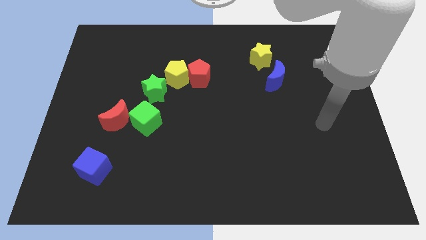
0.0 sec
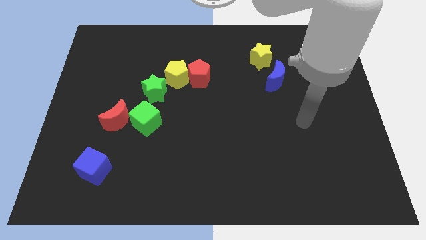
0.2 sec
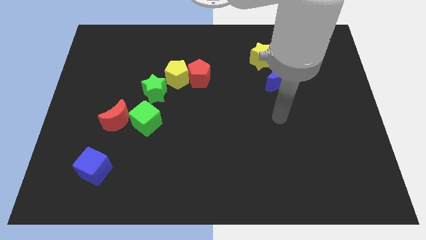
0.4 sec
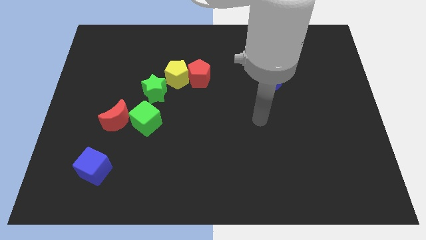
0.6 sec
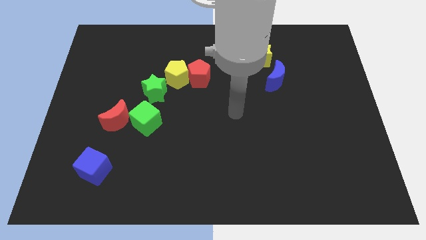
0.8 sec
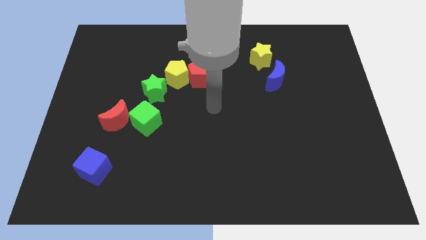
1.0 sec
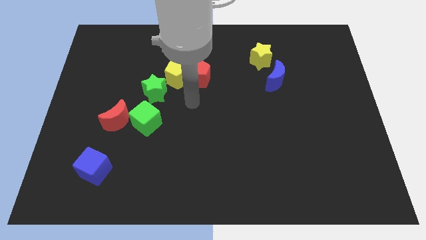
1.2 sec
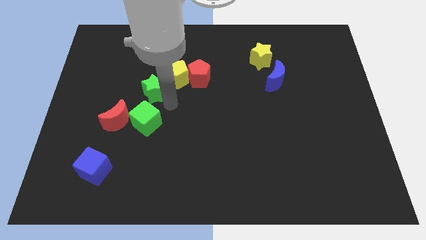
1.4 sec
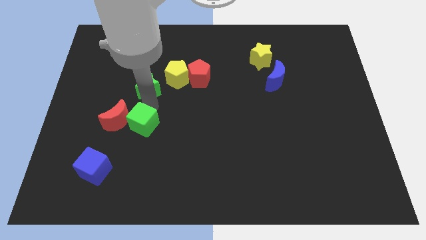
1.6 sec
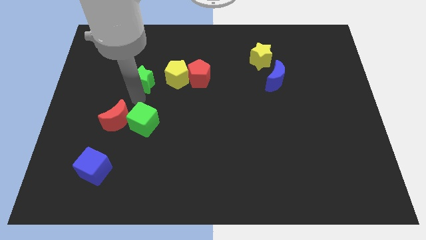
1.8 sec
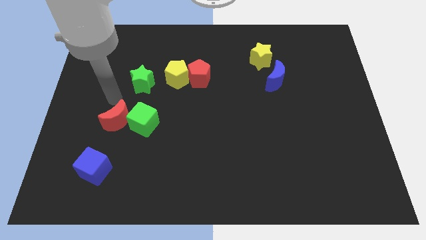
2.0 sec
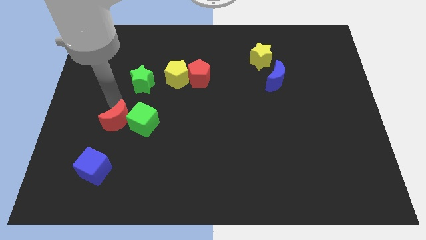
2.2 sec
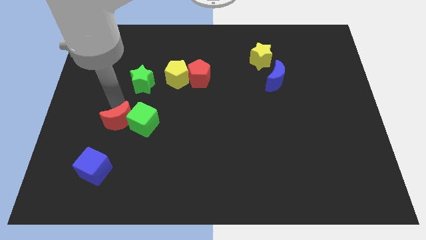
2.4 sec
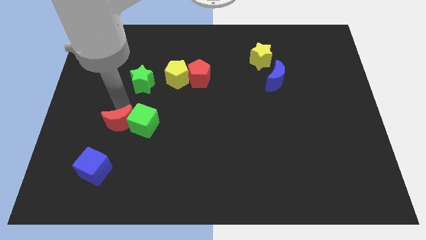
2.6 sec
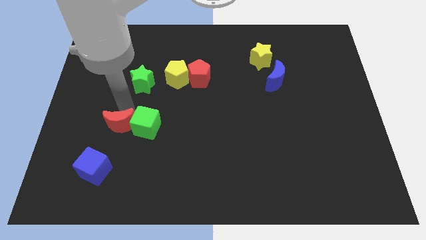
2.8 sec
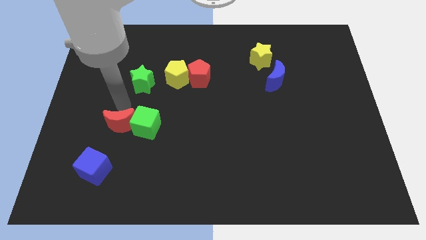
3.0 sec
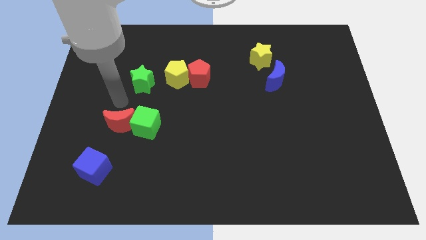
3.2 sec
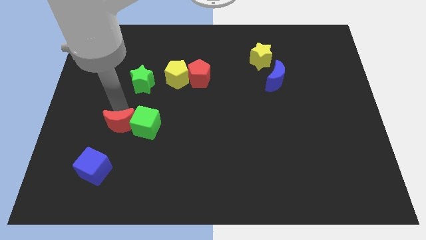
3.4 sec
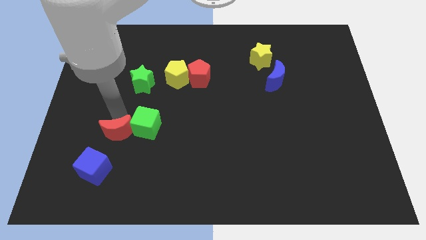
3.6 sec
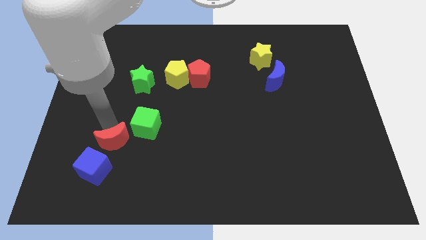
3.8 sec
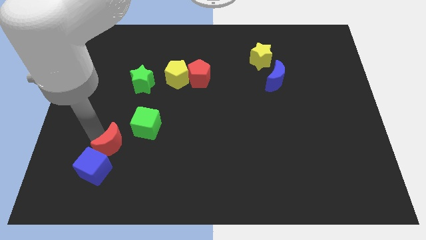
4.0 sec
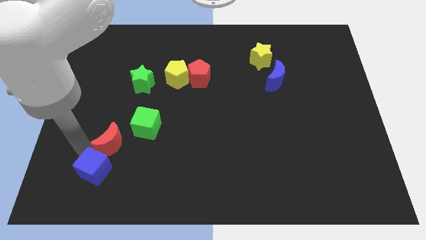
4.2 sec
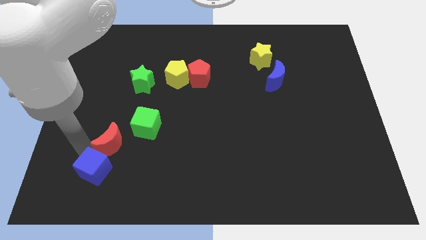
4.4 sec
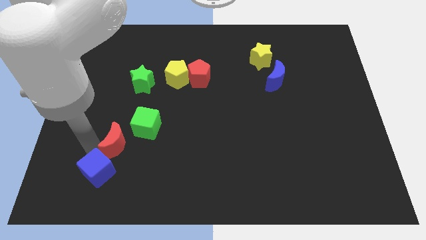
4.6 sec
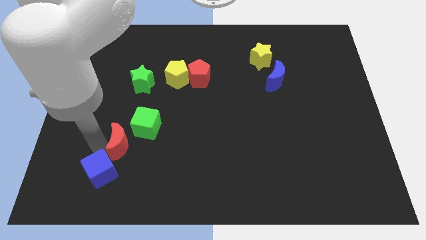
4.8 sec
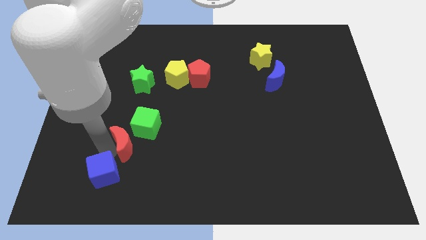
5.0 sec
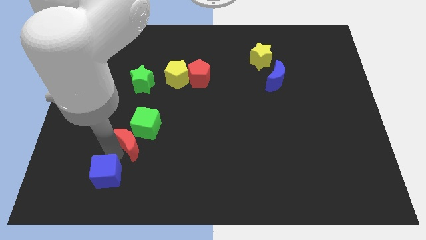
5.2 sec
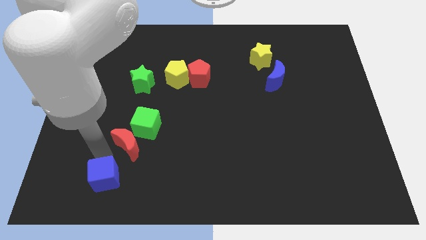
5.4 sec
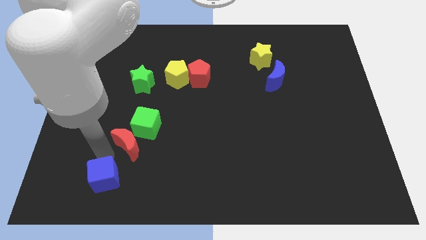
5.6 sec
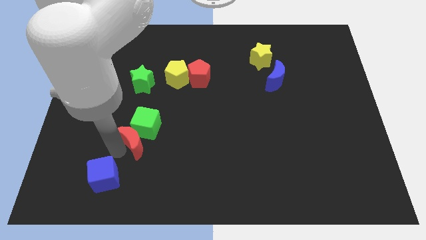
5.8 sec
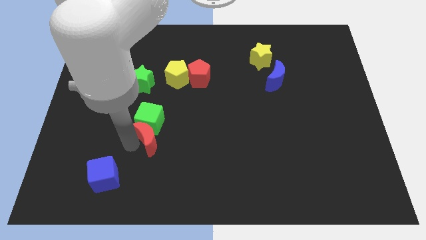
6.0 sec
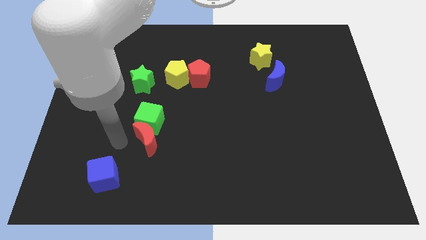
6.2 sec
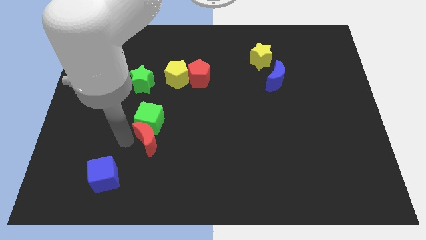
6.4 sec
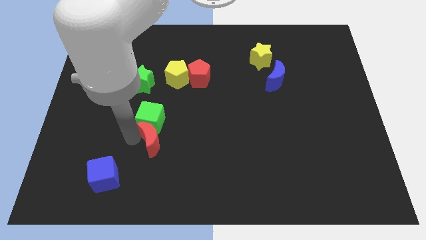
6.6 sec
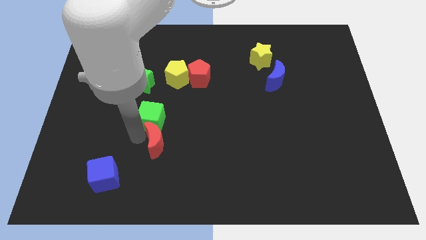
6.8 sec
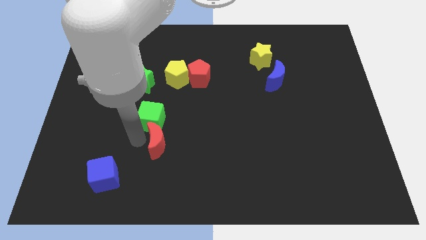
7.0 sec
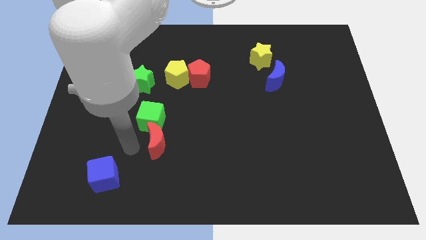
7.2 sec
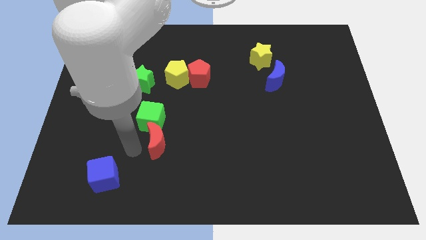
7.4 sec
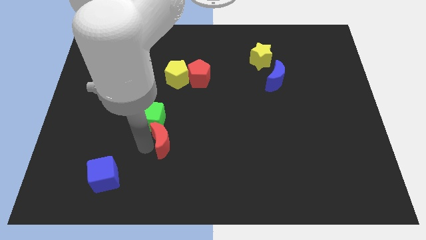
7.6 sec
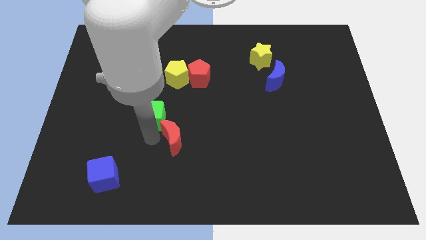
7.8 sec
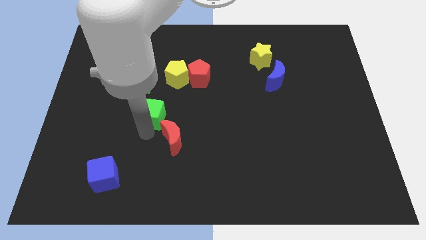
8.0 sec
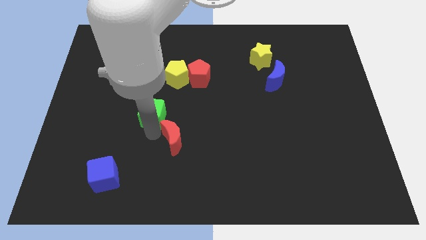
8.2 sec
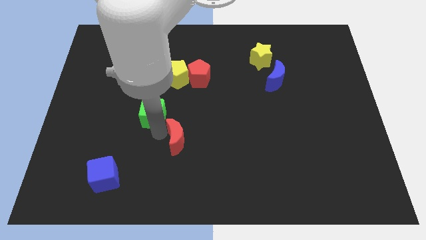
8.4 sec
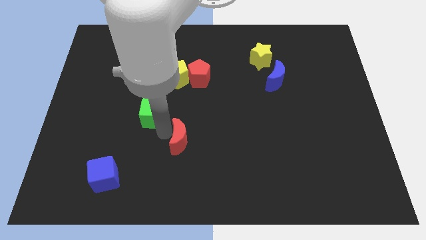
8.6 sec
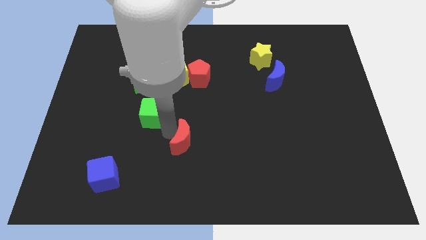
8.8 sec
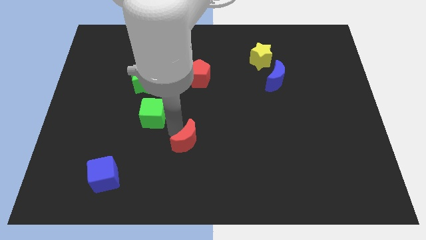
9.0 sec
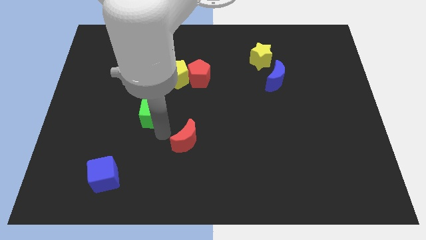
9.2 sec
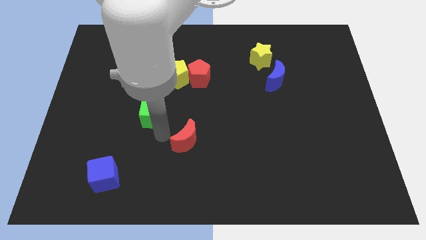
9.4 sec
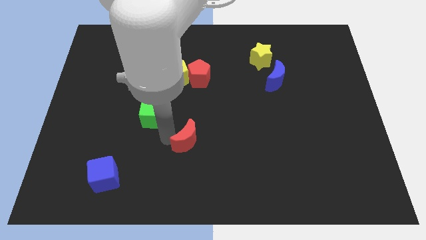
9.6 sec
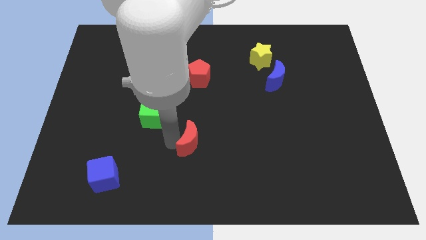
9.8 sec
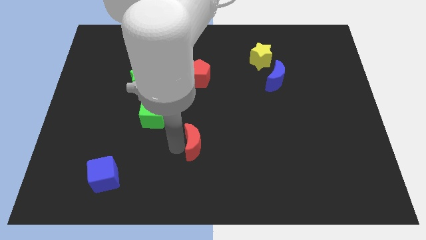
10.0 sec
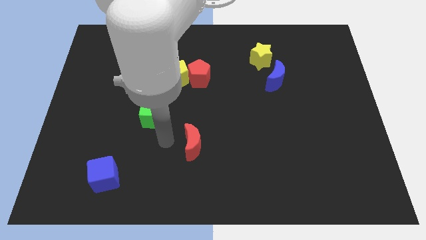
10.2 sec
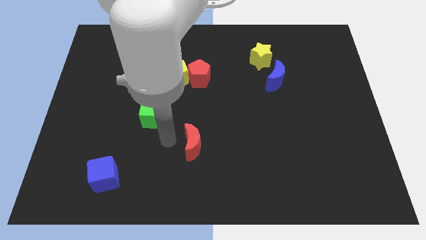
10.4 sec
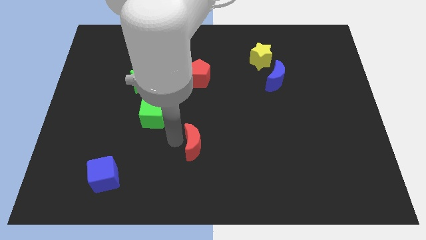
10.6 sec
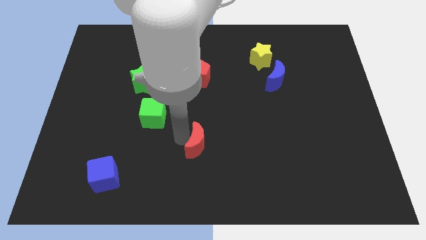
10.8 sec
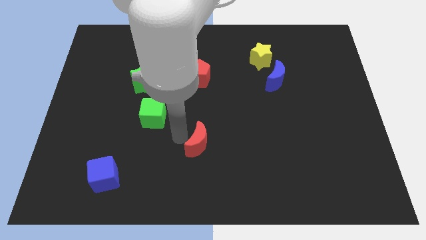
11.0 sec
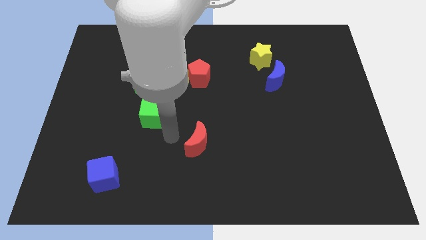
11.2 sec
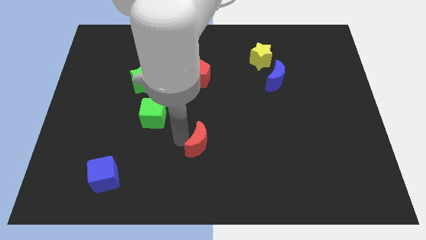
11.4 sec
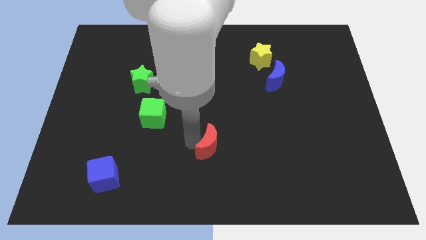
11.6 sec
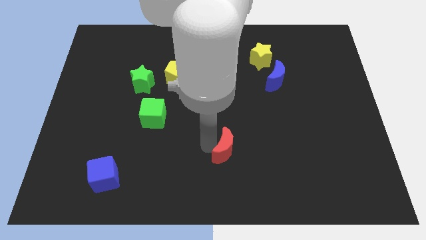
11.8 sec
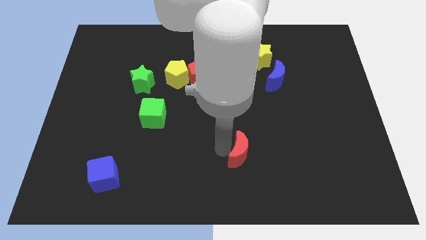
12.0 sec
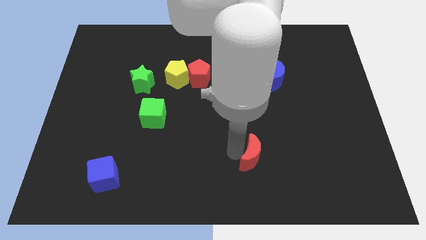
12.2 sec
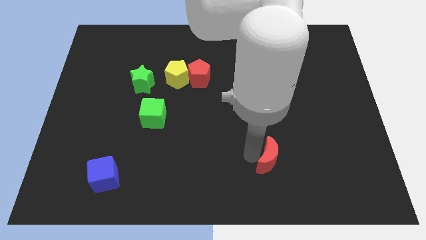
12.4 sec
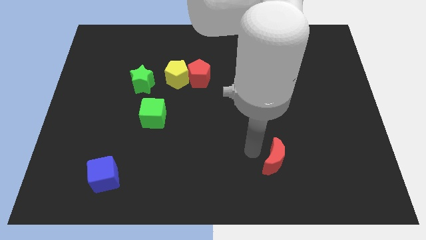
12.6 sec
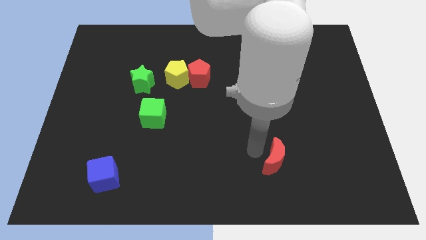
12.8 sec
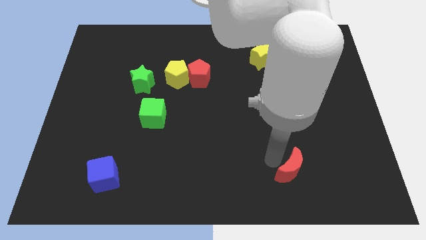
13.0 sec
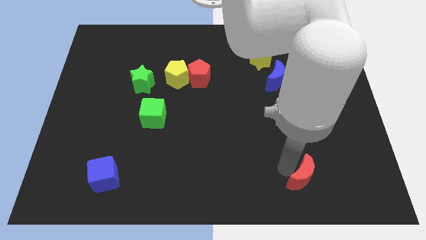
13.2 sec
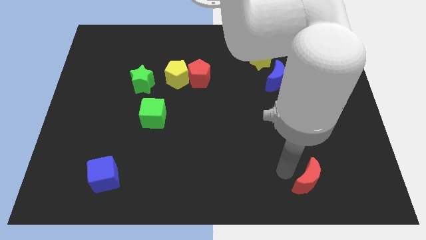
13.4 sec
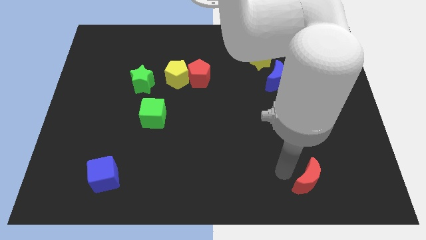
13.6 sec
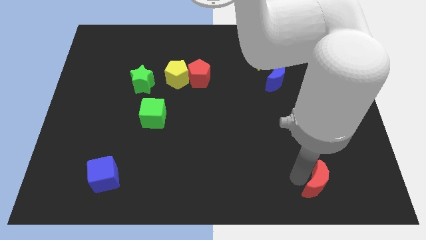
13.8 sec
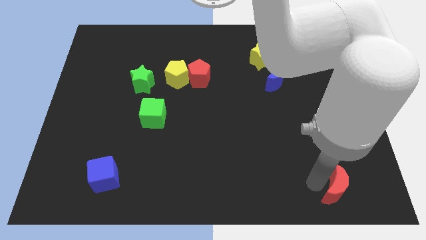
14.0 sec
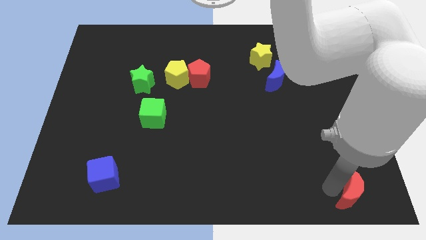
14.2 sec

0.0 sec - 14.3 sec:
move the red moon to the bottom right of the board
